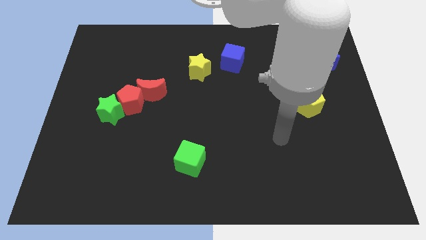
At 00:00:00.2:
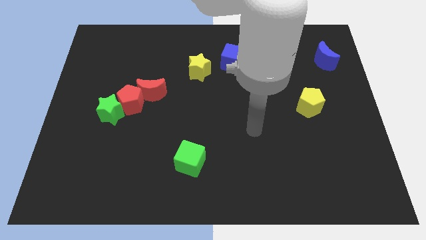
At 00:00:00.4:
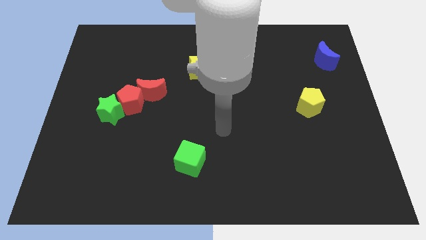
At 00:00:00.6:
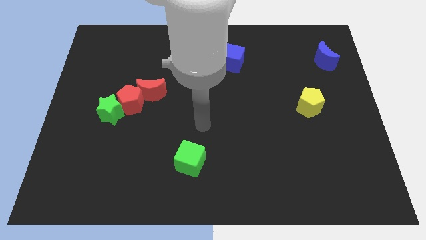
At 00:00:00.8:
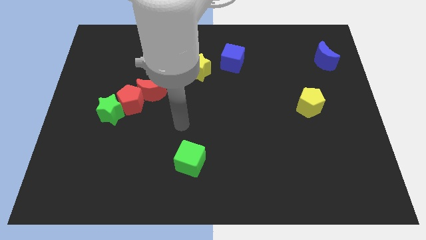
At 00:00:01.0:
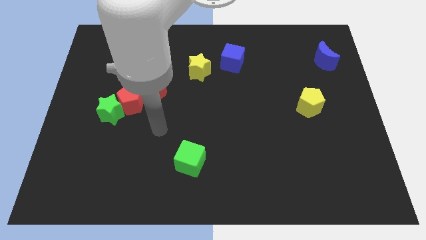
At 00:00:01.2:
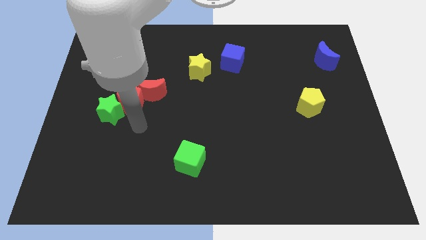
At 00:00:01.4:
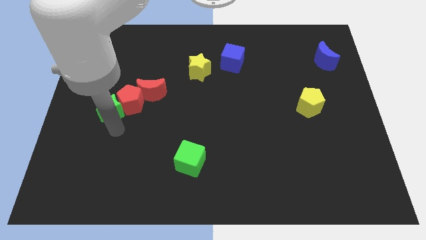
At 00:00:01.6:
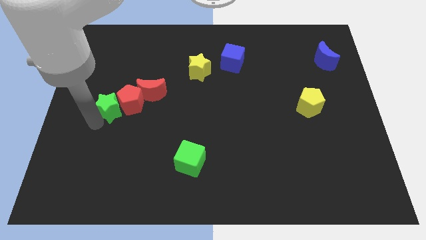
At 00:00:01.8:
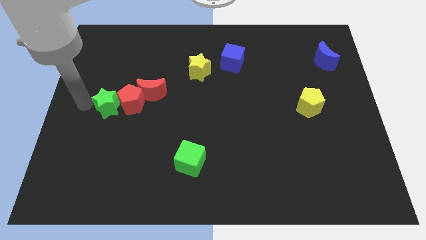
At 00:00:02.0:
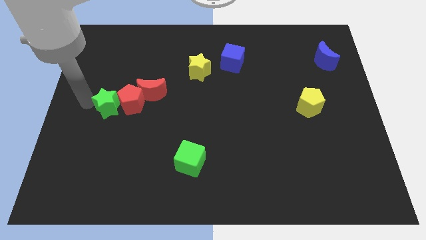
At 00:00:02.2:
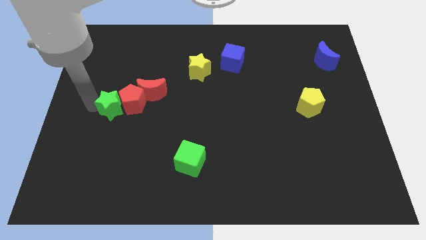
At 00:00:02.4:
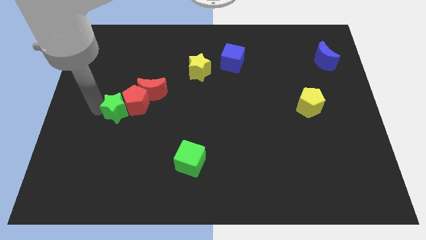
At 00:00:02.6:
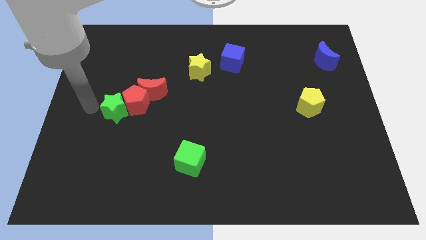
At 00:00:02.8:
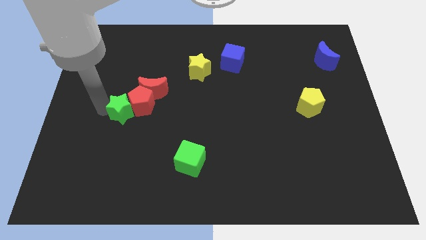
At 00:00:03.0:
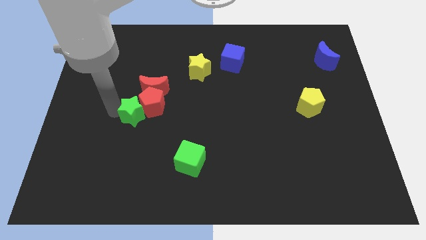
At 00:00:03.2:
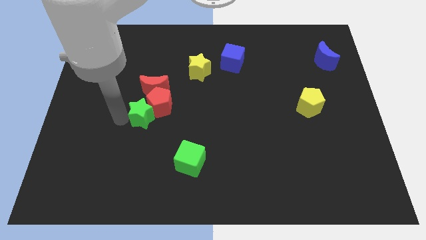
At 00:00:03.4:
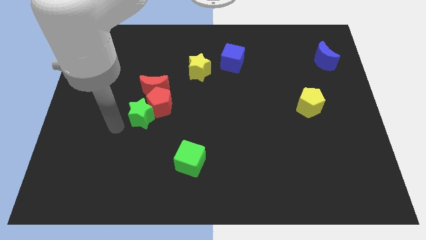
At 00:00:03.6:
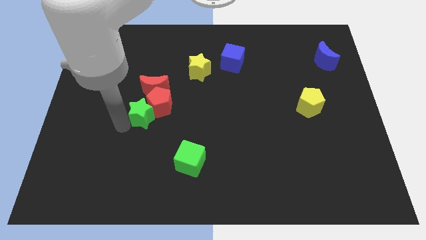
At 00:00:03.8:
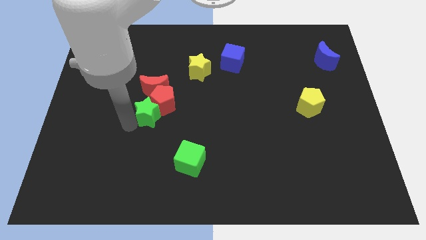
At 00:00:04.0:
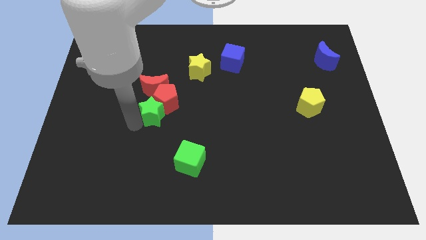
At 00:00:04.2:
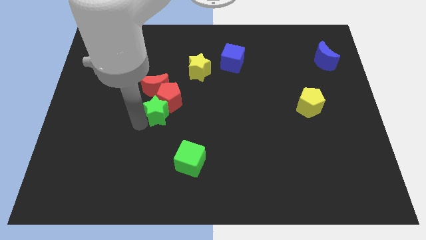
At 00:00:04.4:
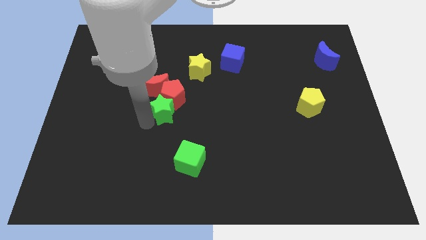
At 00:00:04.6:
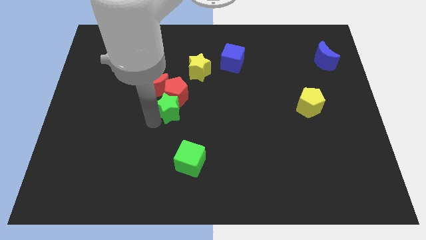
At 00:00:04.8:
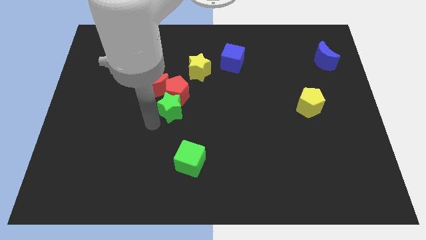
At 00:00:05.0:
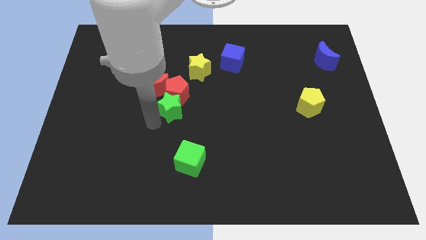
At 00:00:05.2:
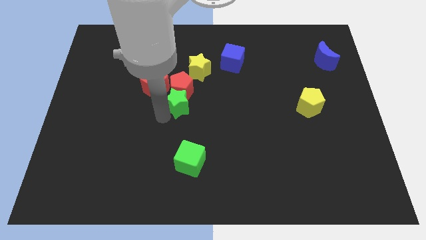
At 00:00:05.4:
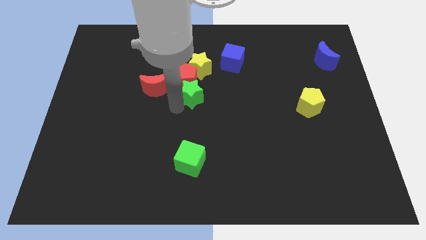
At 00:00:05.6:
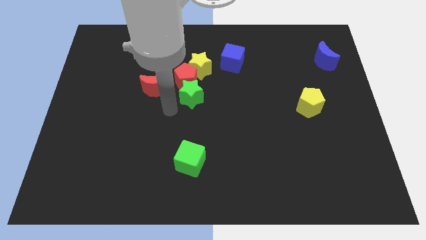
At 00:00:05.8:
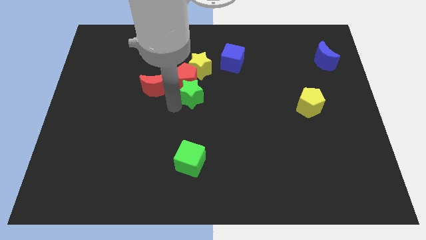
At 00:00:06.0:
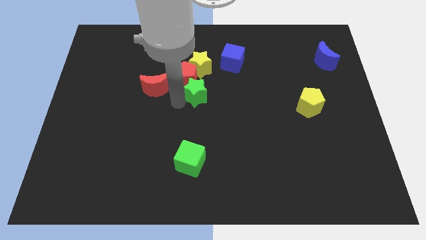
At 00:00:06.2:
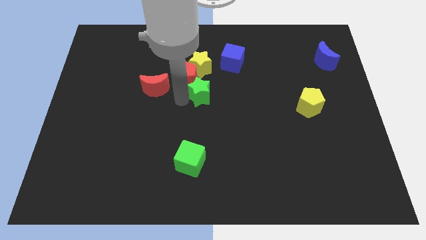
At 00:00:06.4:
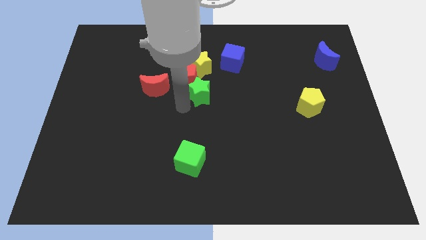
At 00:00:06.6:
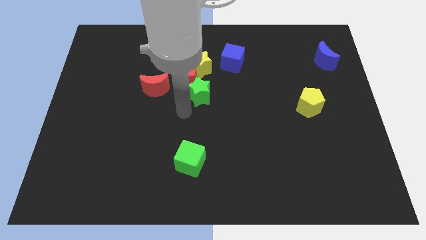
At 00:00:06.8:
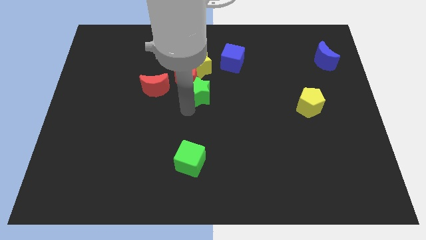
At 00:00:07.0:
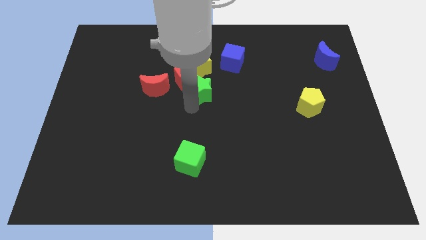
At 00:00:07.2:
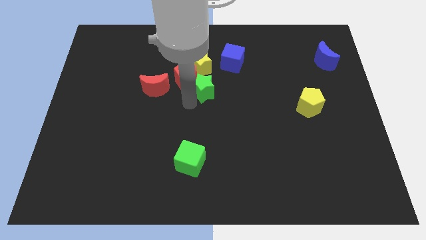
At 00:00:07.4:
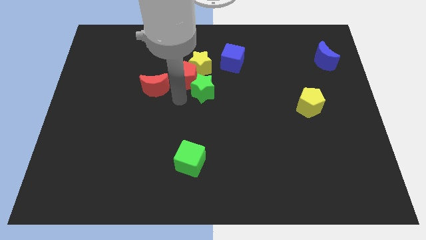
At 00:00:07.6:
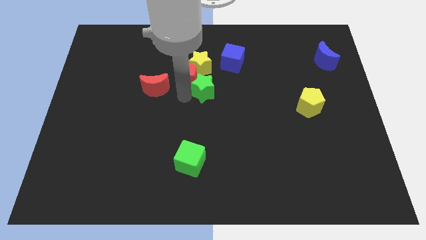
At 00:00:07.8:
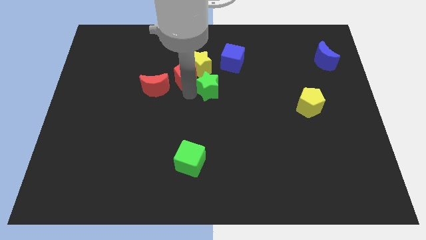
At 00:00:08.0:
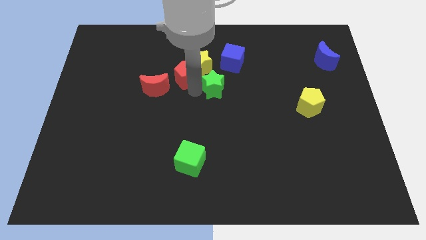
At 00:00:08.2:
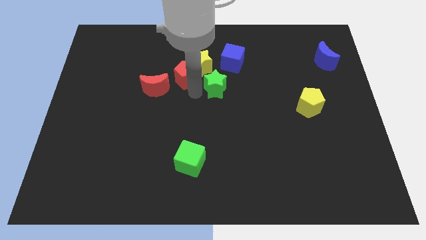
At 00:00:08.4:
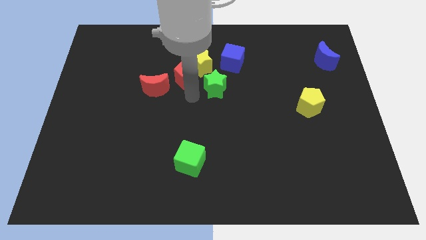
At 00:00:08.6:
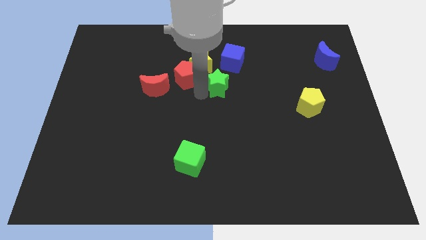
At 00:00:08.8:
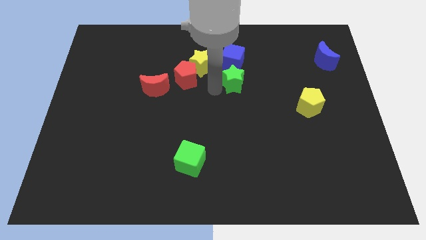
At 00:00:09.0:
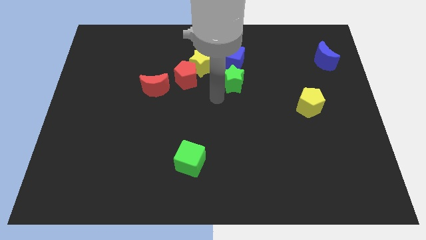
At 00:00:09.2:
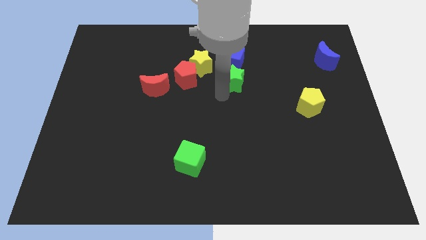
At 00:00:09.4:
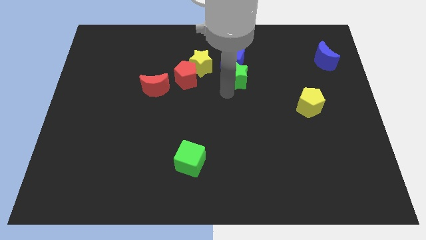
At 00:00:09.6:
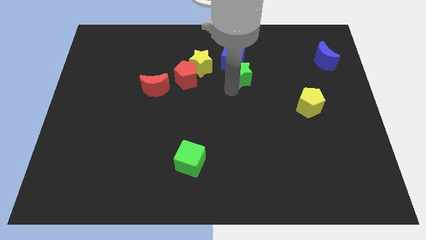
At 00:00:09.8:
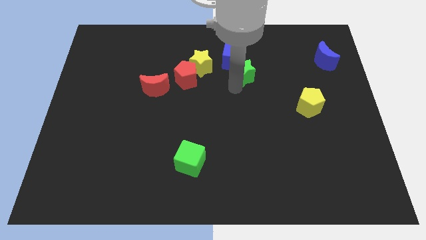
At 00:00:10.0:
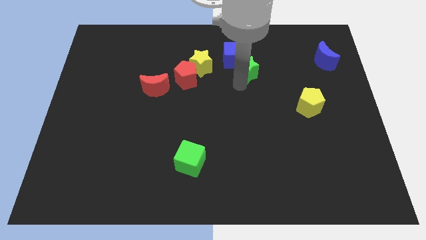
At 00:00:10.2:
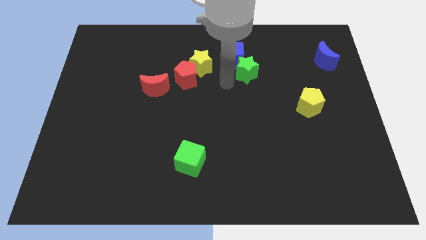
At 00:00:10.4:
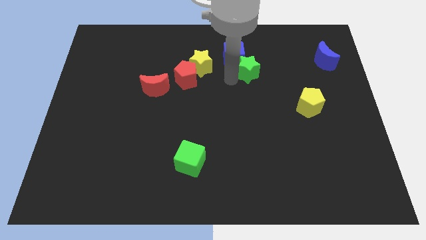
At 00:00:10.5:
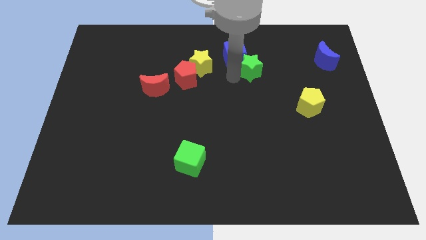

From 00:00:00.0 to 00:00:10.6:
push the green star right of the blue cube

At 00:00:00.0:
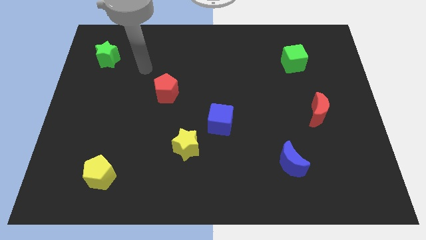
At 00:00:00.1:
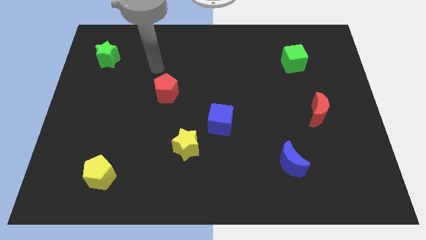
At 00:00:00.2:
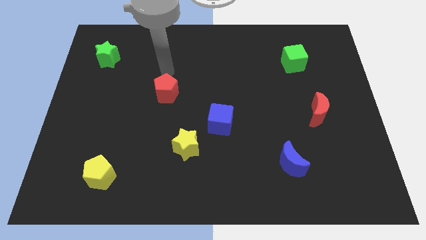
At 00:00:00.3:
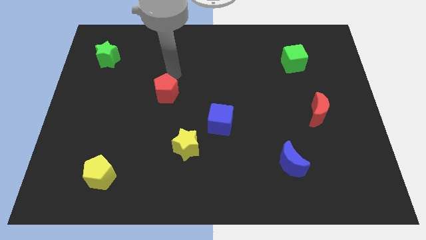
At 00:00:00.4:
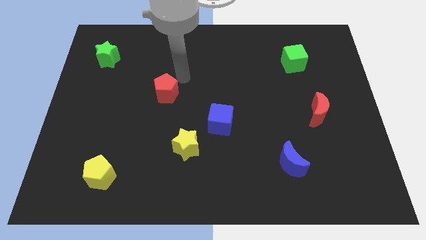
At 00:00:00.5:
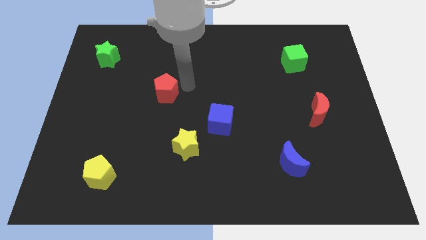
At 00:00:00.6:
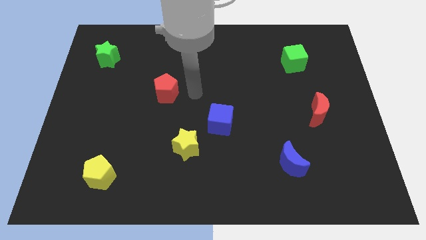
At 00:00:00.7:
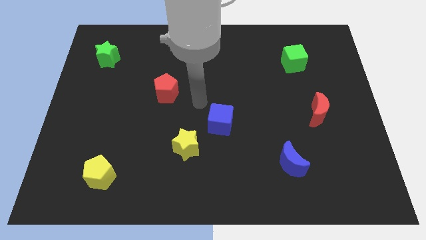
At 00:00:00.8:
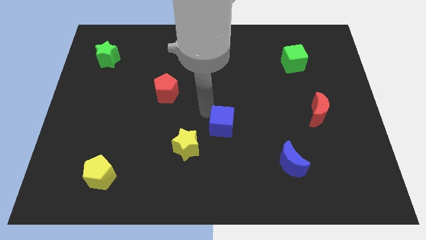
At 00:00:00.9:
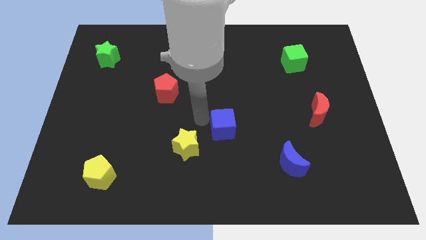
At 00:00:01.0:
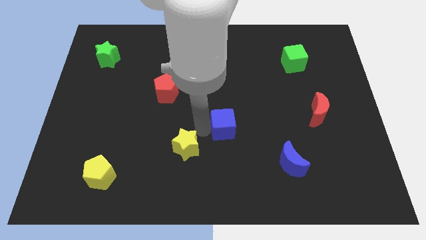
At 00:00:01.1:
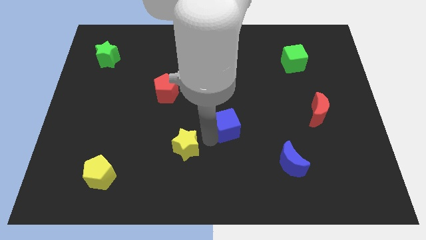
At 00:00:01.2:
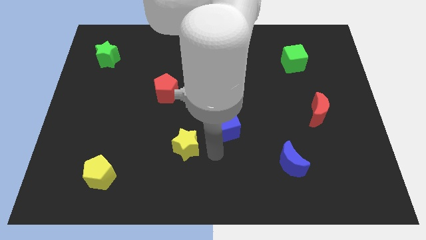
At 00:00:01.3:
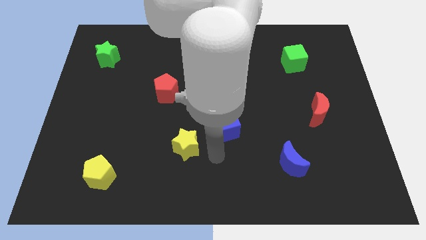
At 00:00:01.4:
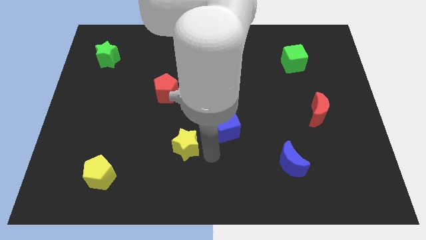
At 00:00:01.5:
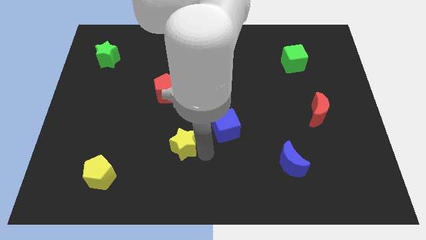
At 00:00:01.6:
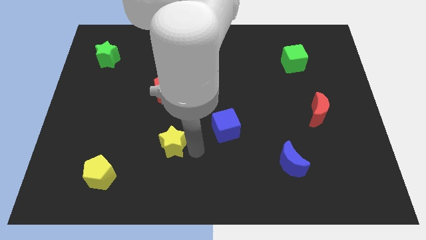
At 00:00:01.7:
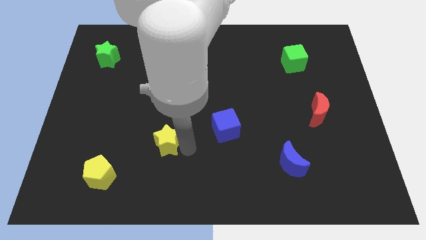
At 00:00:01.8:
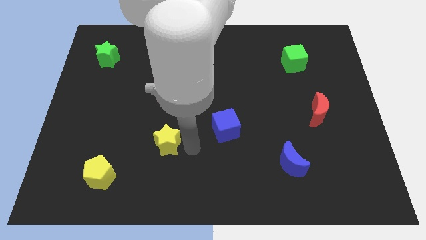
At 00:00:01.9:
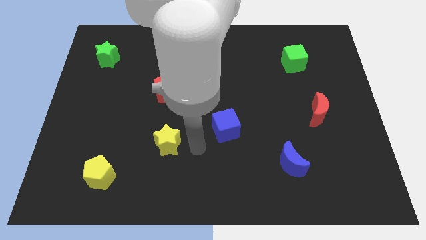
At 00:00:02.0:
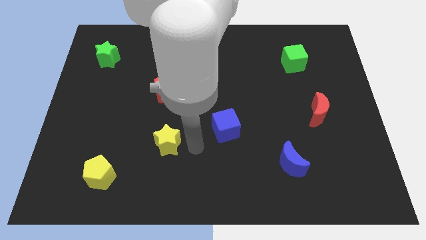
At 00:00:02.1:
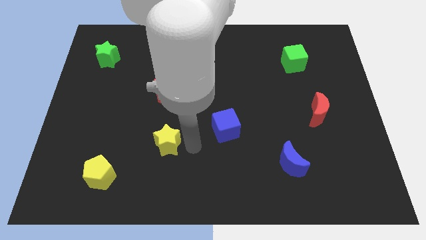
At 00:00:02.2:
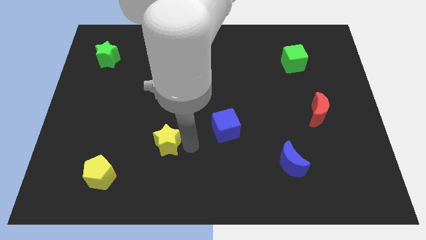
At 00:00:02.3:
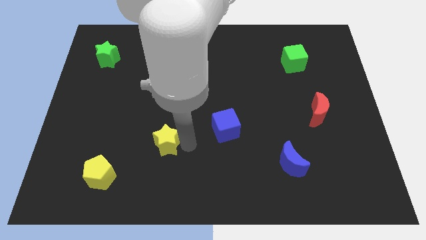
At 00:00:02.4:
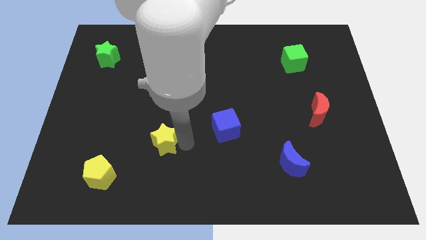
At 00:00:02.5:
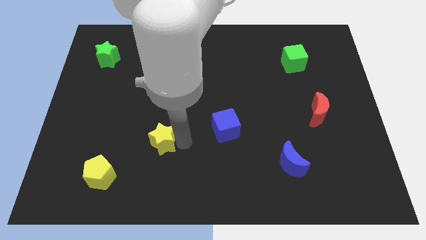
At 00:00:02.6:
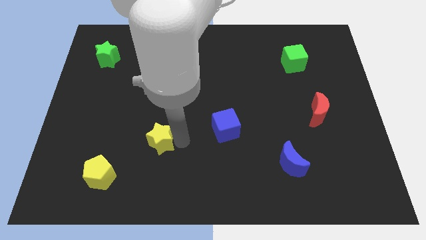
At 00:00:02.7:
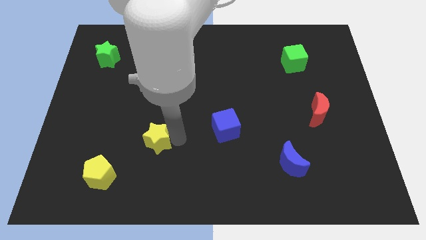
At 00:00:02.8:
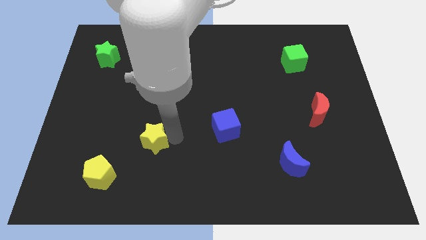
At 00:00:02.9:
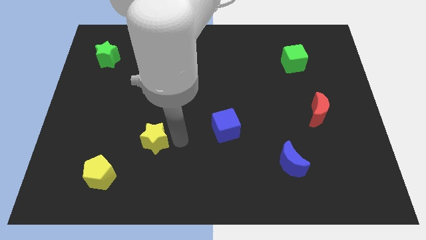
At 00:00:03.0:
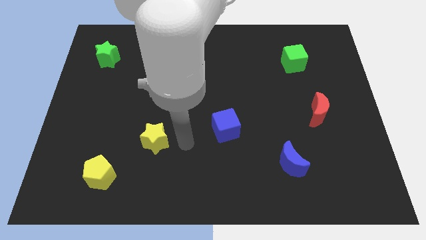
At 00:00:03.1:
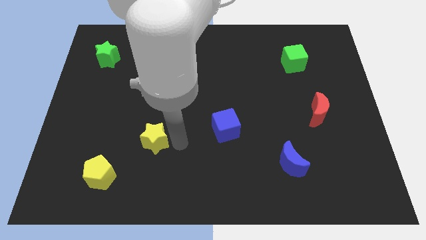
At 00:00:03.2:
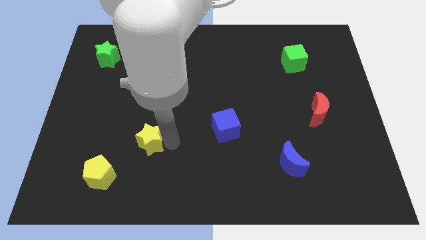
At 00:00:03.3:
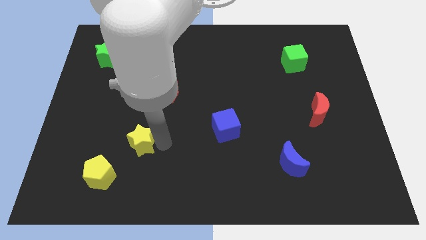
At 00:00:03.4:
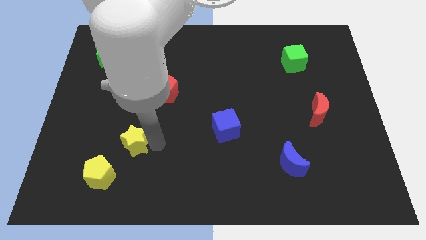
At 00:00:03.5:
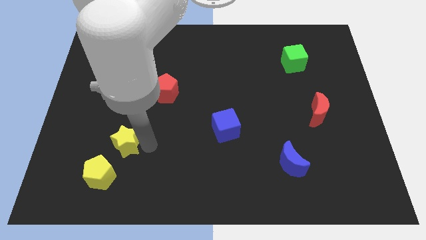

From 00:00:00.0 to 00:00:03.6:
put the yellow star to the top of the yellow pentagon
